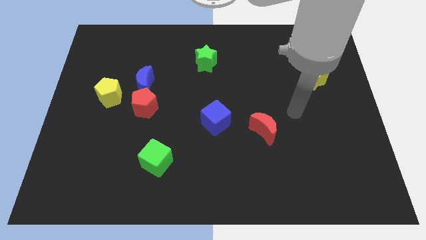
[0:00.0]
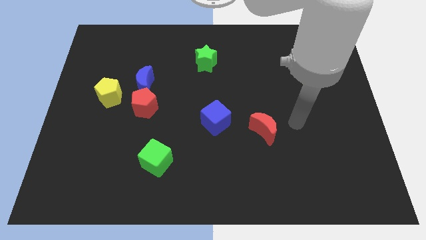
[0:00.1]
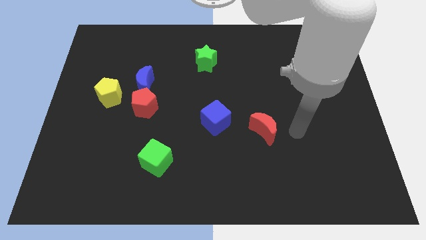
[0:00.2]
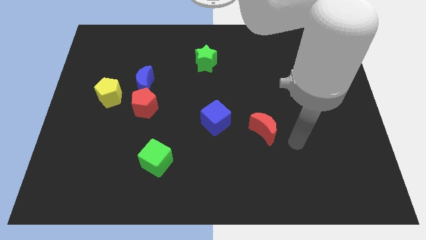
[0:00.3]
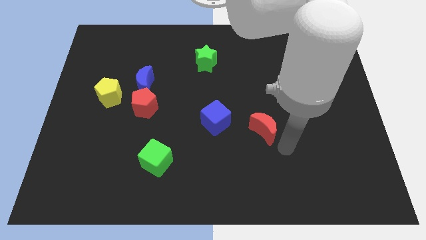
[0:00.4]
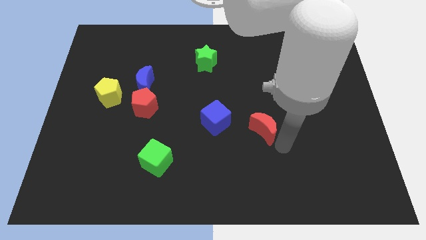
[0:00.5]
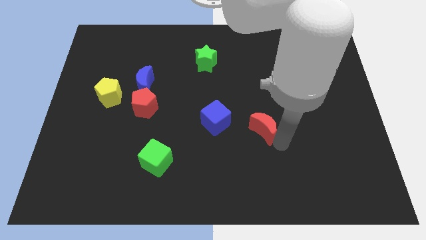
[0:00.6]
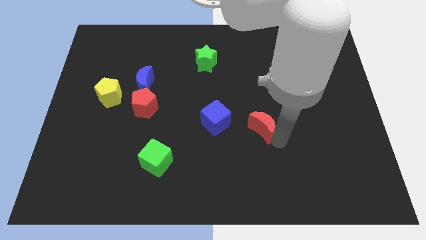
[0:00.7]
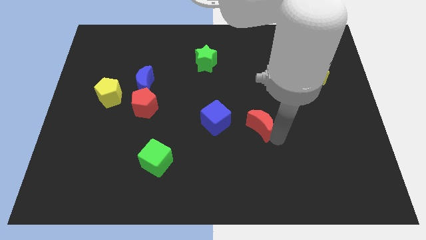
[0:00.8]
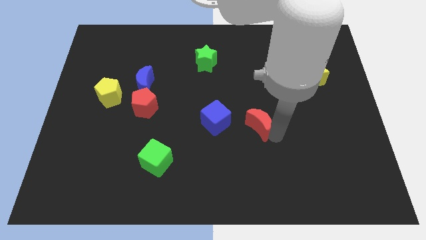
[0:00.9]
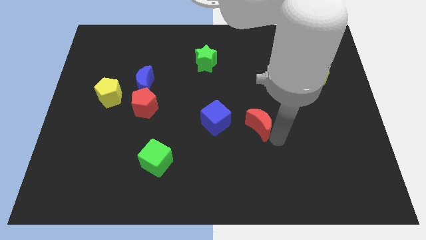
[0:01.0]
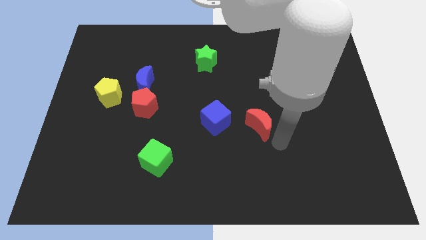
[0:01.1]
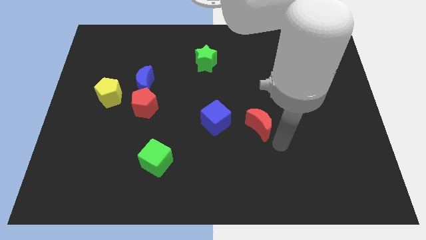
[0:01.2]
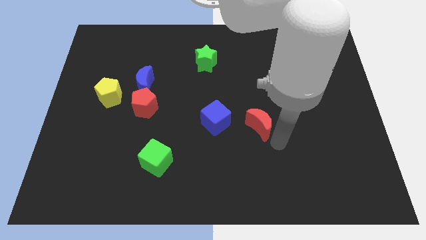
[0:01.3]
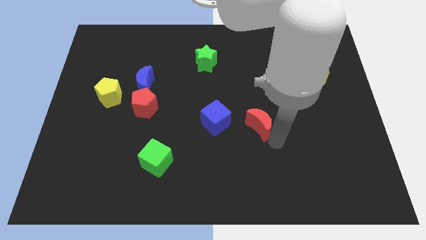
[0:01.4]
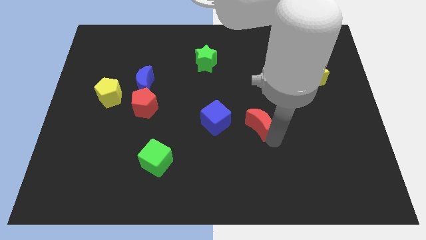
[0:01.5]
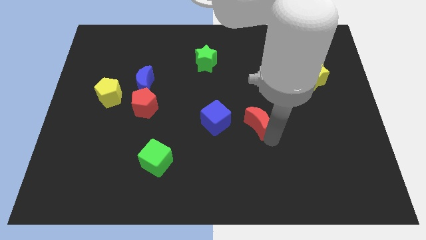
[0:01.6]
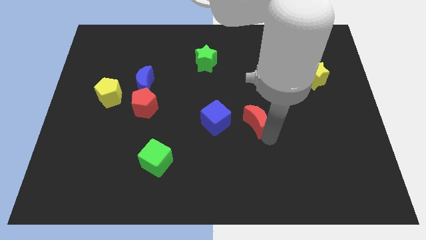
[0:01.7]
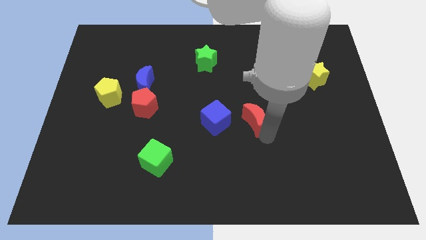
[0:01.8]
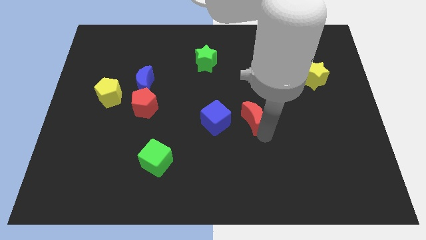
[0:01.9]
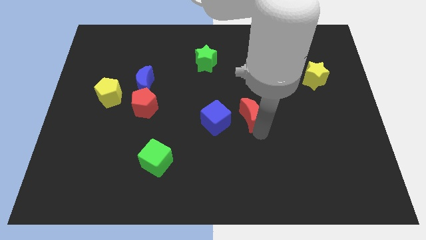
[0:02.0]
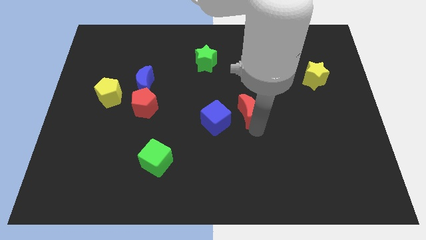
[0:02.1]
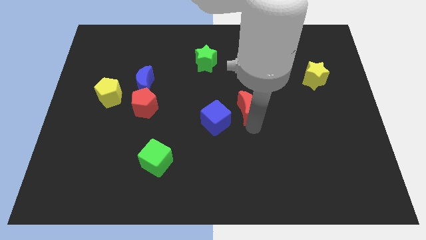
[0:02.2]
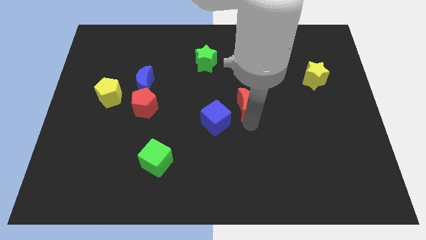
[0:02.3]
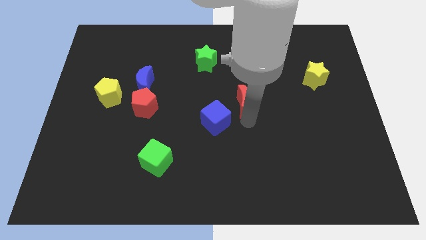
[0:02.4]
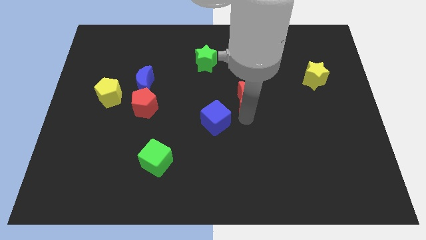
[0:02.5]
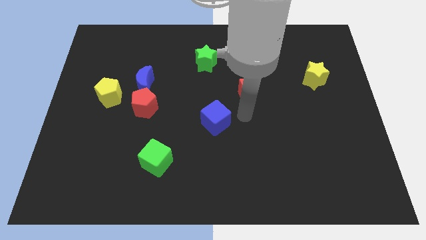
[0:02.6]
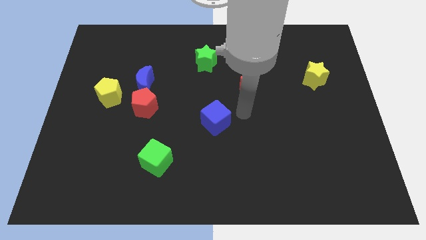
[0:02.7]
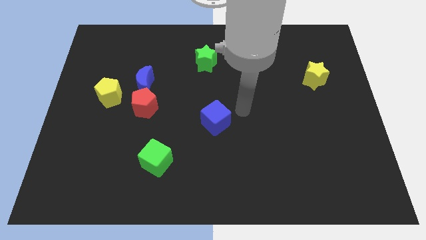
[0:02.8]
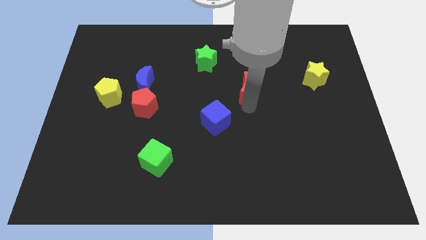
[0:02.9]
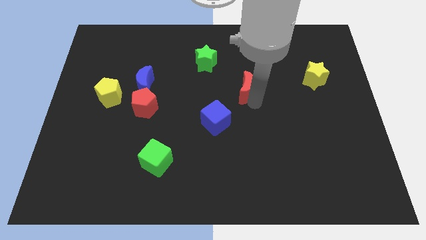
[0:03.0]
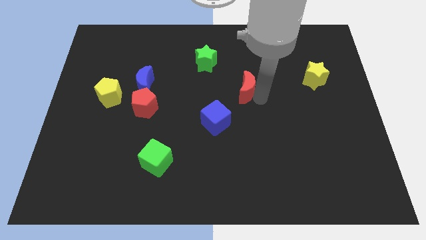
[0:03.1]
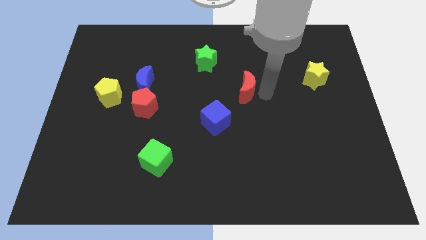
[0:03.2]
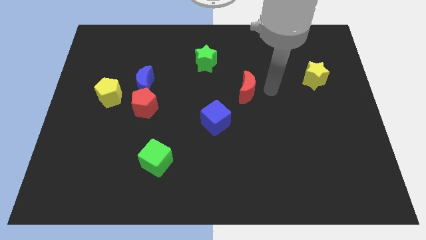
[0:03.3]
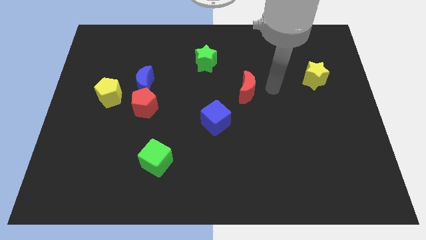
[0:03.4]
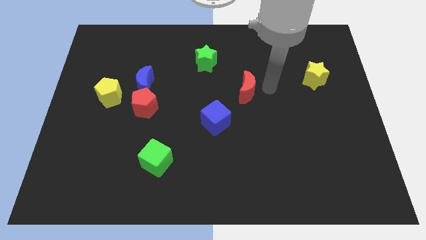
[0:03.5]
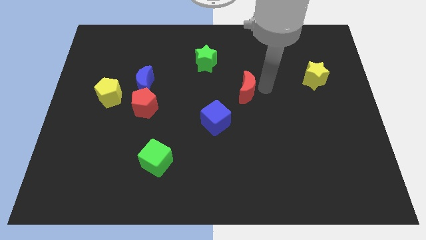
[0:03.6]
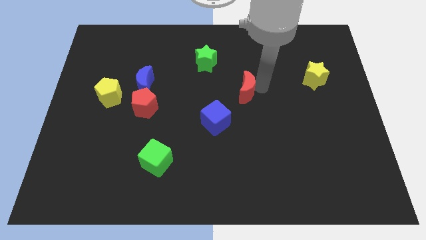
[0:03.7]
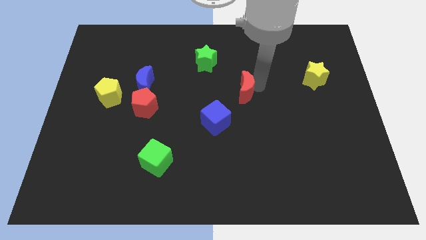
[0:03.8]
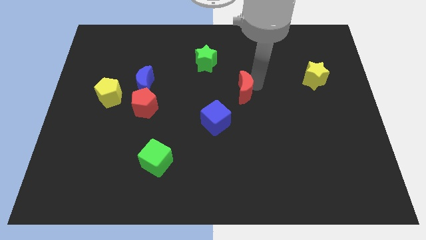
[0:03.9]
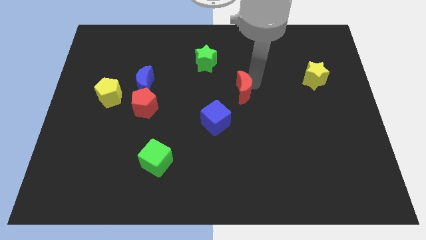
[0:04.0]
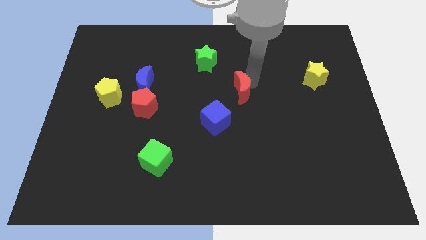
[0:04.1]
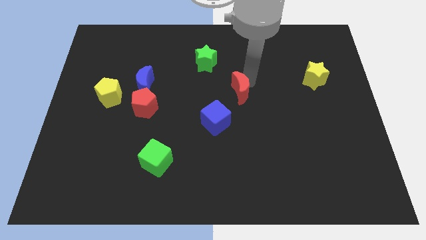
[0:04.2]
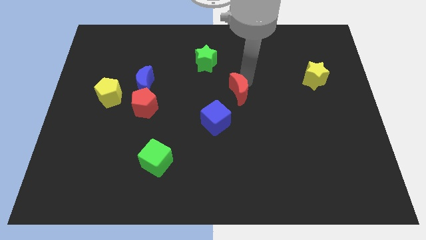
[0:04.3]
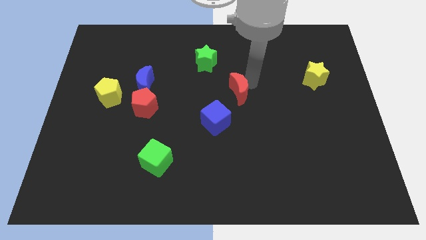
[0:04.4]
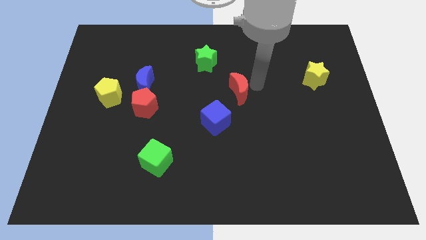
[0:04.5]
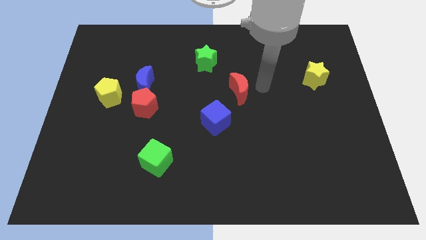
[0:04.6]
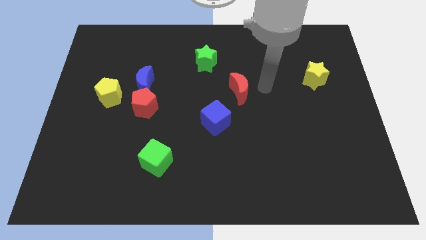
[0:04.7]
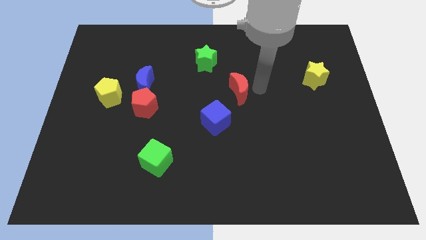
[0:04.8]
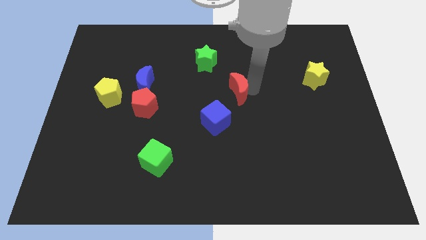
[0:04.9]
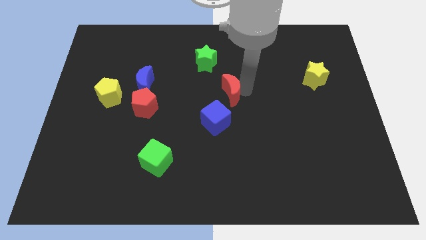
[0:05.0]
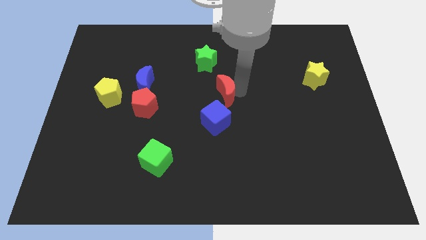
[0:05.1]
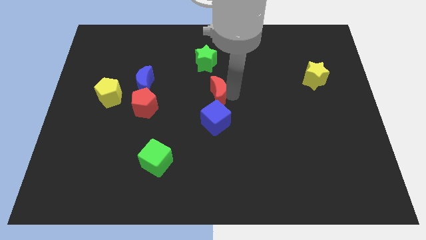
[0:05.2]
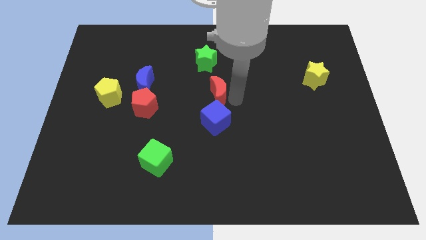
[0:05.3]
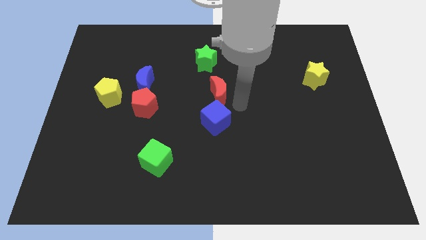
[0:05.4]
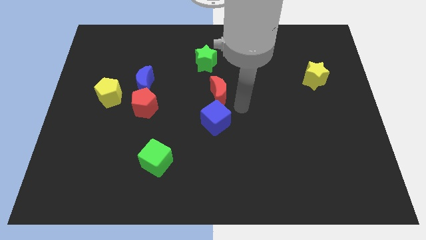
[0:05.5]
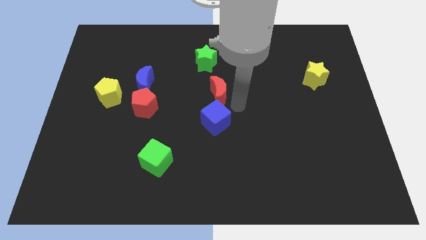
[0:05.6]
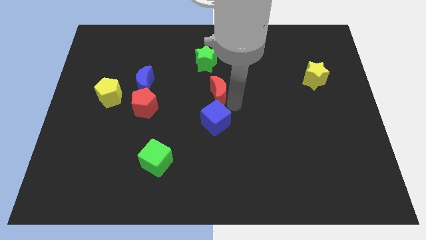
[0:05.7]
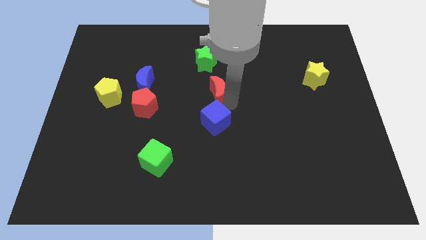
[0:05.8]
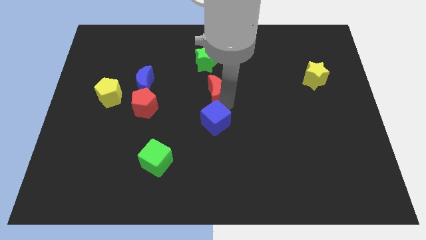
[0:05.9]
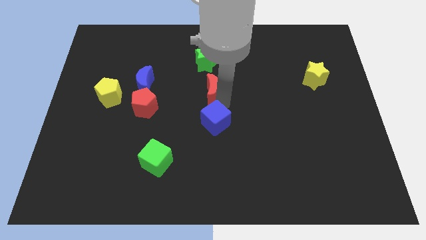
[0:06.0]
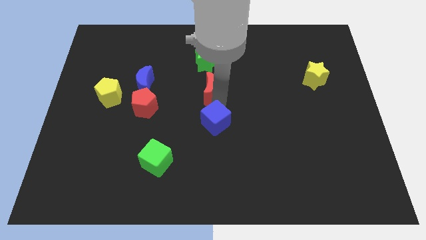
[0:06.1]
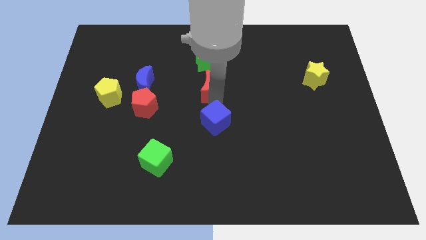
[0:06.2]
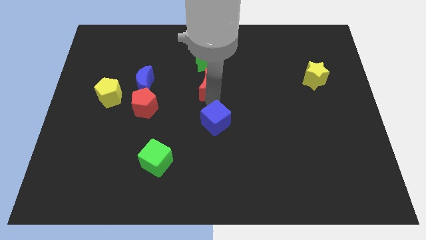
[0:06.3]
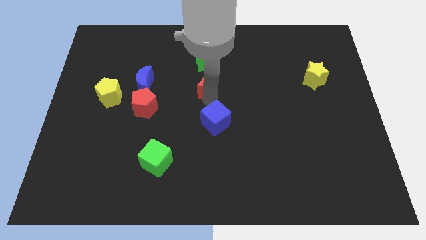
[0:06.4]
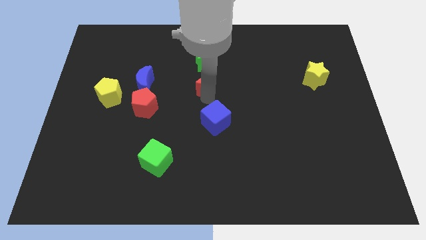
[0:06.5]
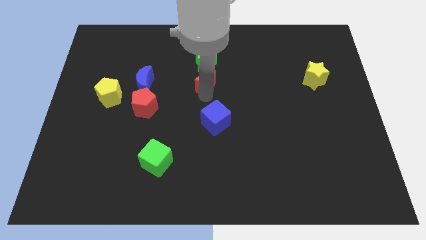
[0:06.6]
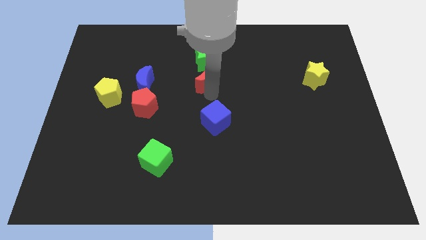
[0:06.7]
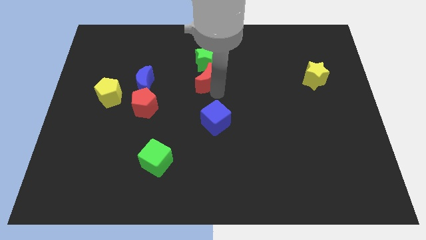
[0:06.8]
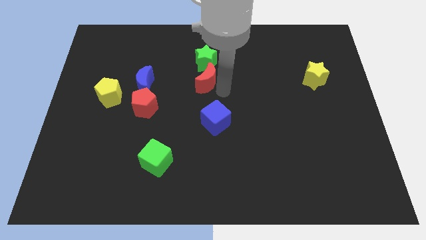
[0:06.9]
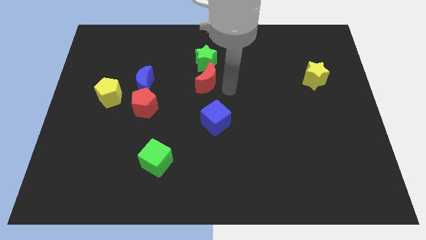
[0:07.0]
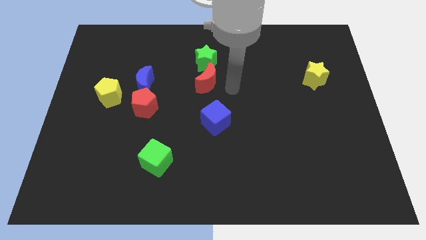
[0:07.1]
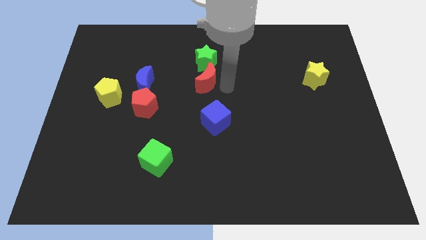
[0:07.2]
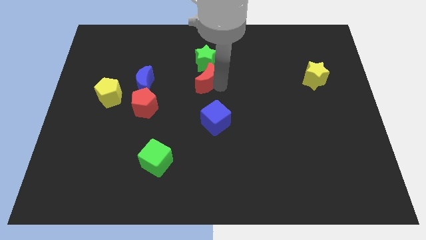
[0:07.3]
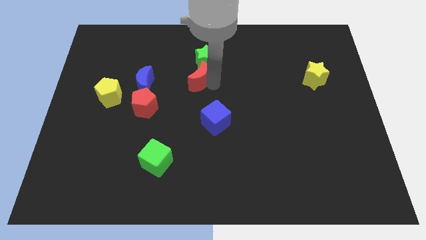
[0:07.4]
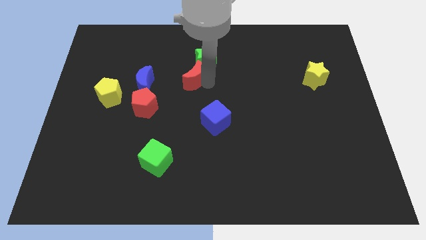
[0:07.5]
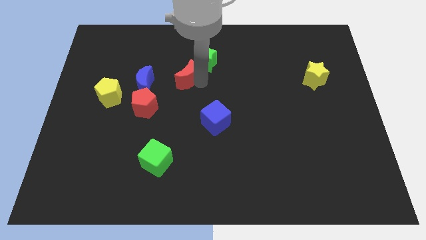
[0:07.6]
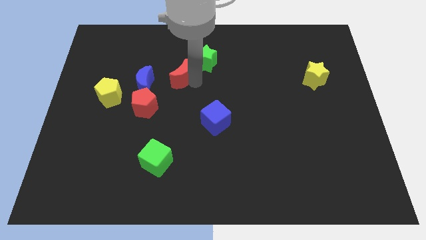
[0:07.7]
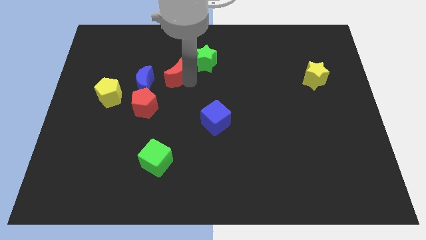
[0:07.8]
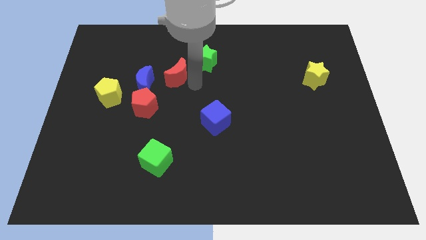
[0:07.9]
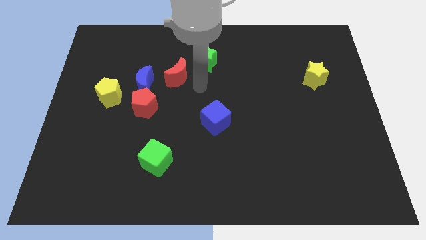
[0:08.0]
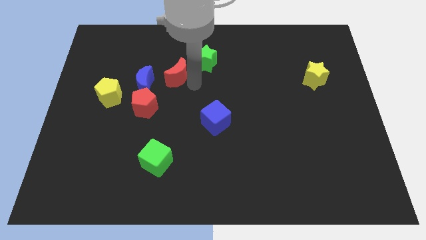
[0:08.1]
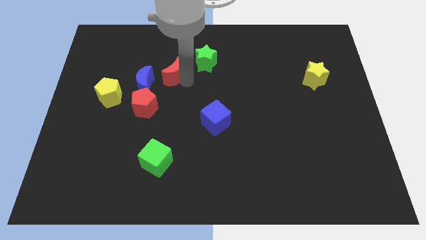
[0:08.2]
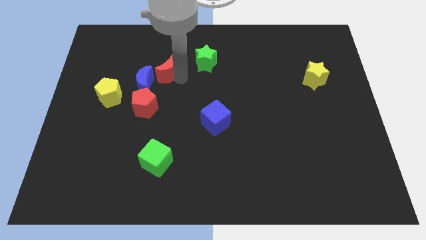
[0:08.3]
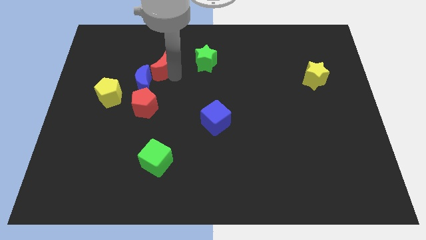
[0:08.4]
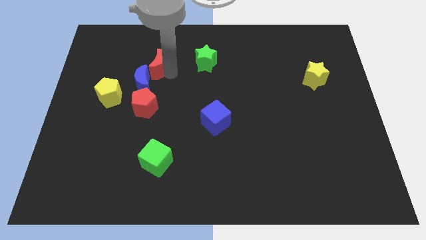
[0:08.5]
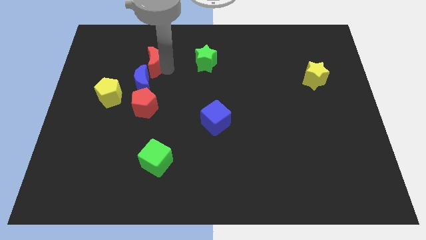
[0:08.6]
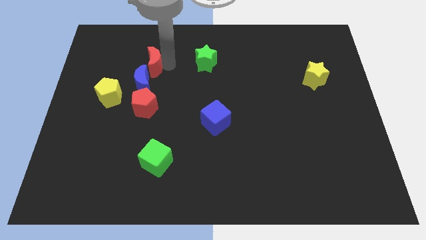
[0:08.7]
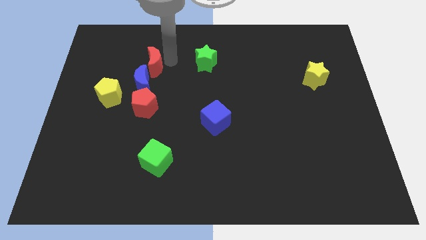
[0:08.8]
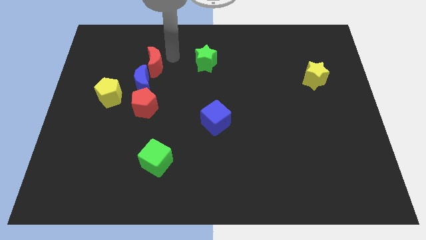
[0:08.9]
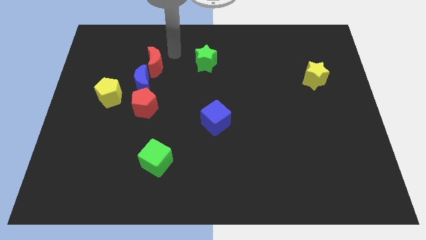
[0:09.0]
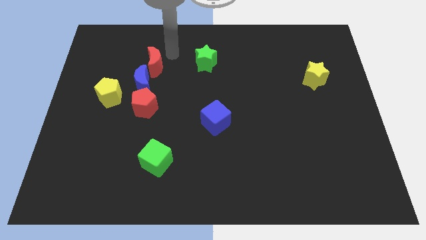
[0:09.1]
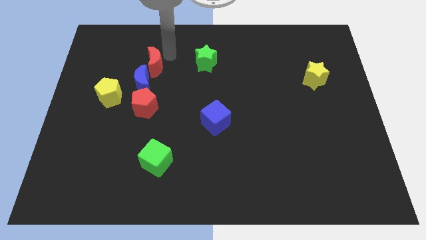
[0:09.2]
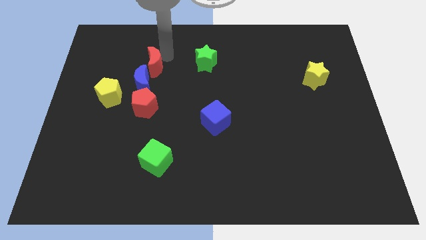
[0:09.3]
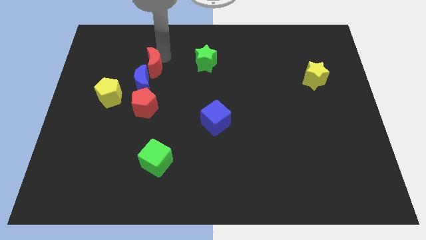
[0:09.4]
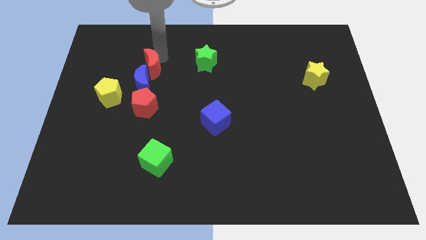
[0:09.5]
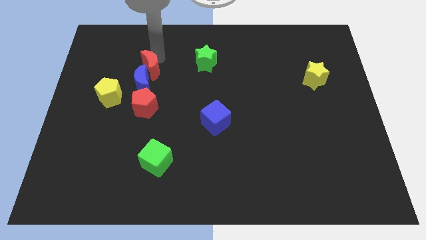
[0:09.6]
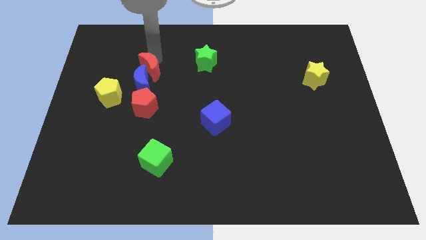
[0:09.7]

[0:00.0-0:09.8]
slide the red moon to the top right of the yellow pentagon
